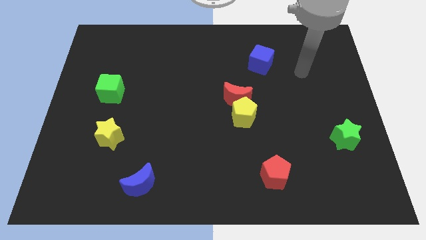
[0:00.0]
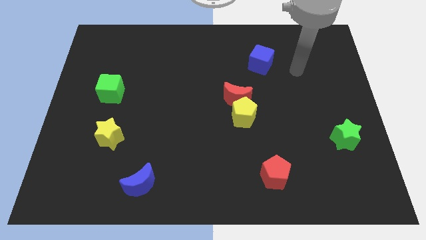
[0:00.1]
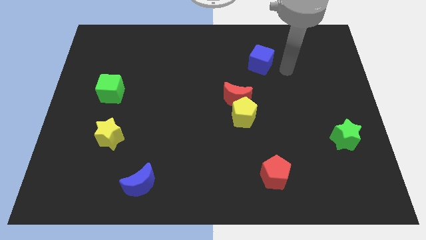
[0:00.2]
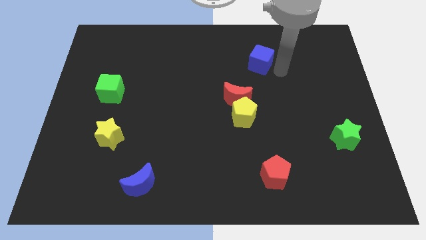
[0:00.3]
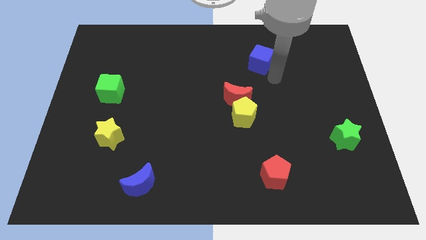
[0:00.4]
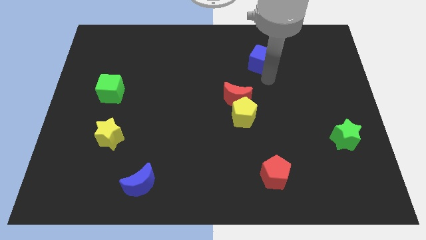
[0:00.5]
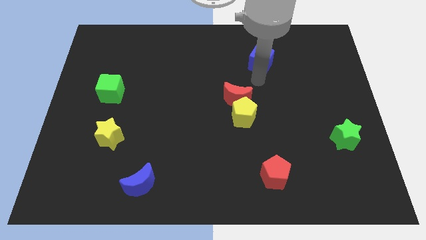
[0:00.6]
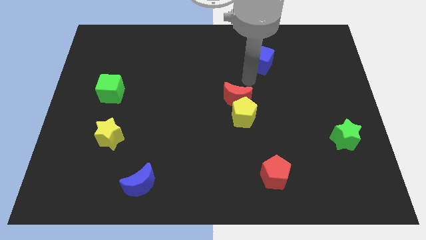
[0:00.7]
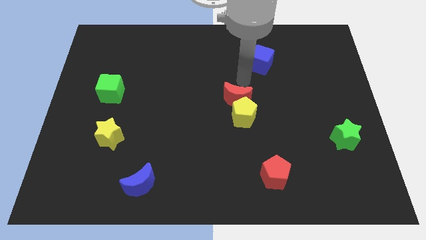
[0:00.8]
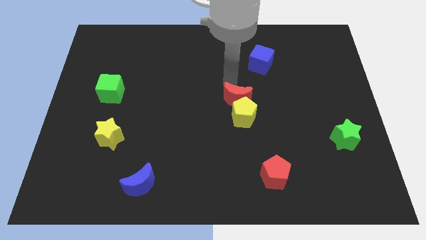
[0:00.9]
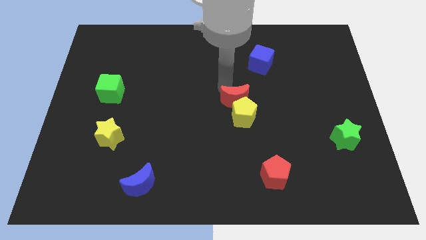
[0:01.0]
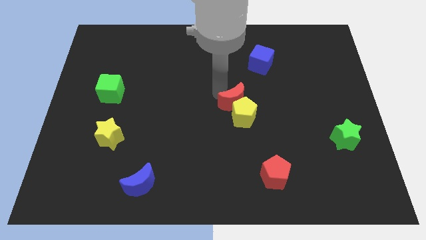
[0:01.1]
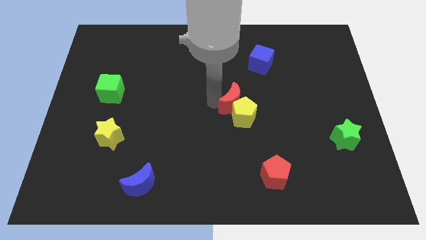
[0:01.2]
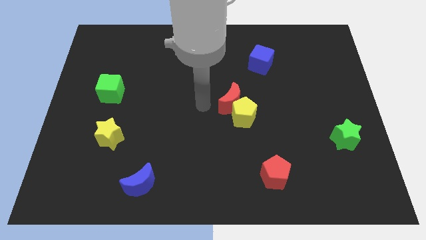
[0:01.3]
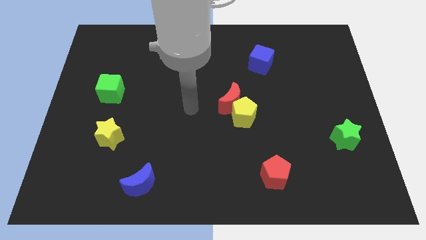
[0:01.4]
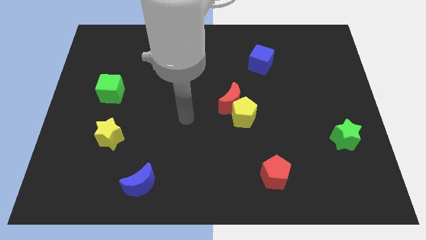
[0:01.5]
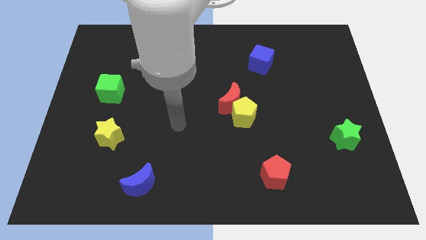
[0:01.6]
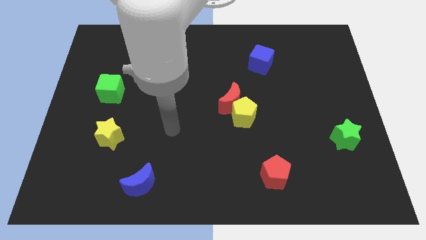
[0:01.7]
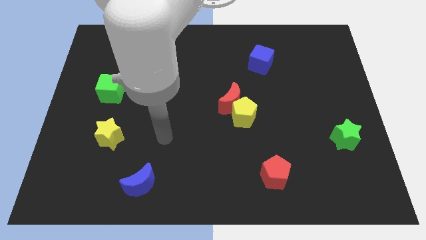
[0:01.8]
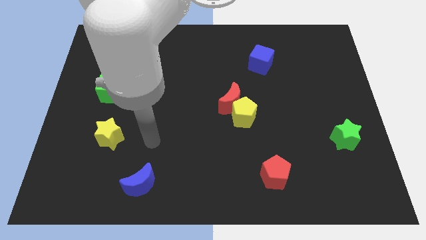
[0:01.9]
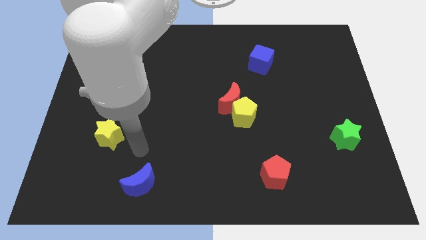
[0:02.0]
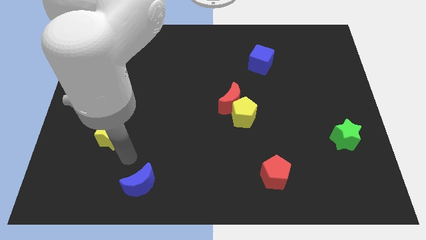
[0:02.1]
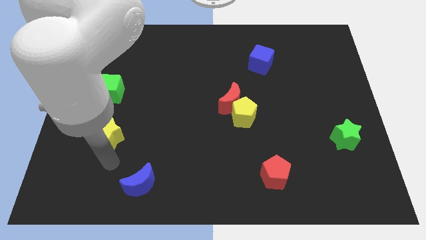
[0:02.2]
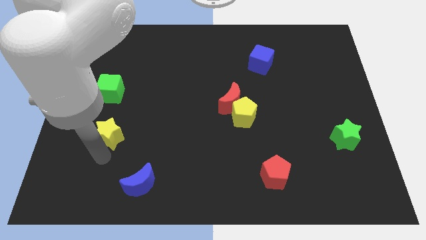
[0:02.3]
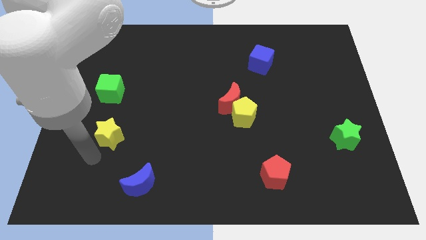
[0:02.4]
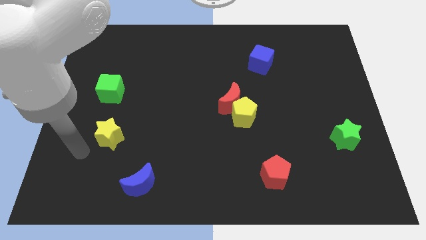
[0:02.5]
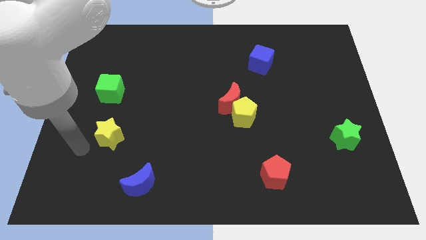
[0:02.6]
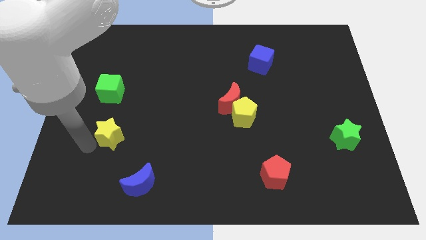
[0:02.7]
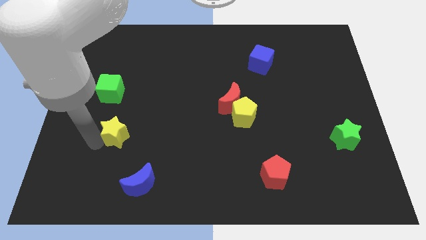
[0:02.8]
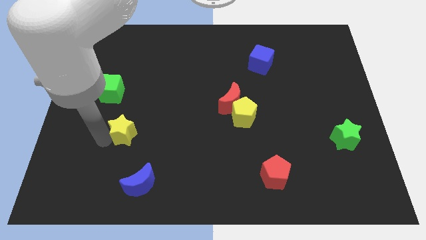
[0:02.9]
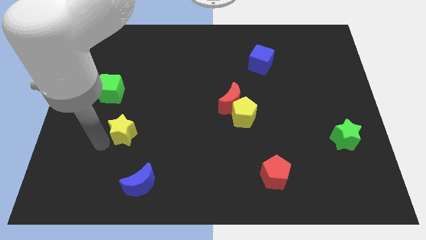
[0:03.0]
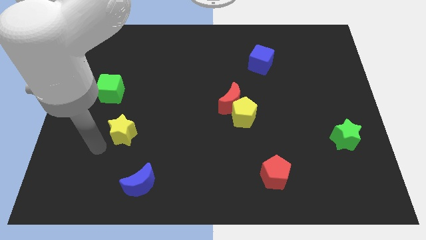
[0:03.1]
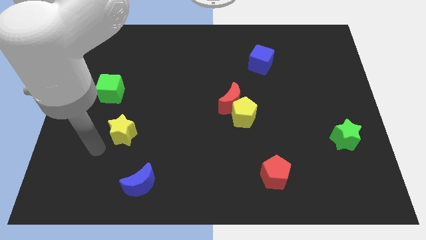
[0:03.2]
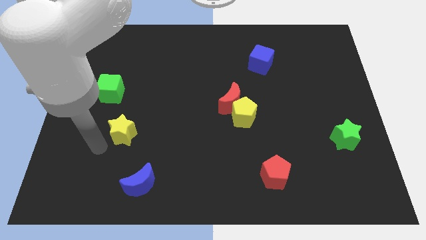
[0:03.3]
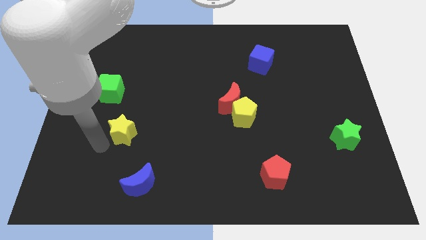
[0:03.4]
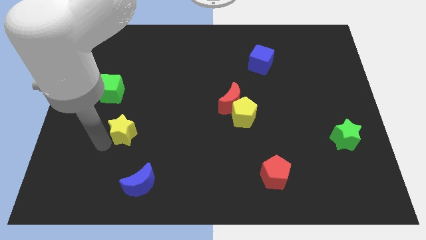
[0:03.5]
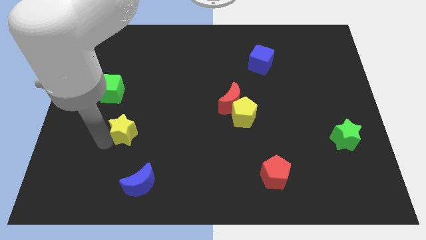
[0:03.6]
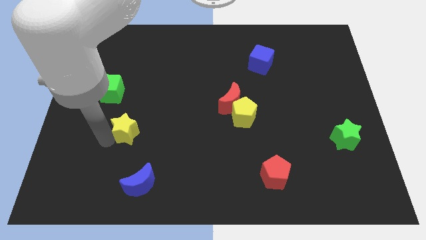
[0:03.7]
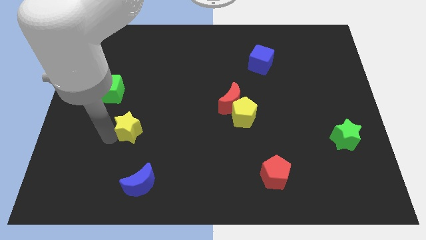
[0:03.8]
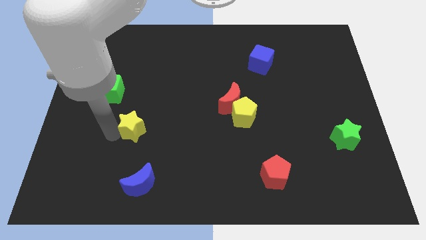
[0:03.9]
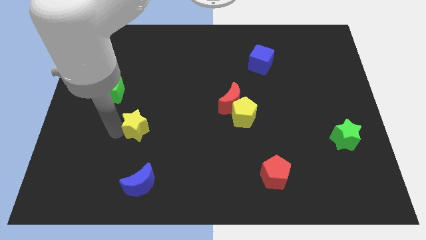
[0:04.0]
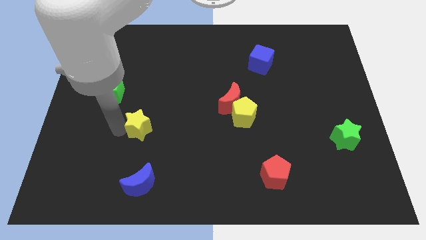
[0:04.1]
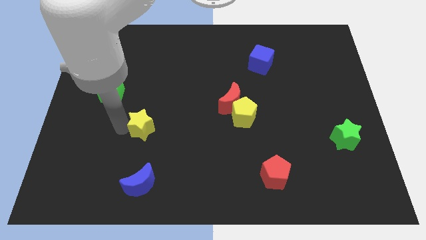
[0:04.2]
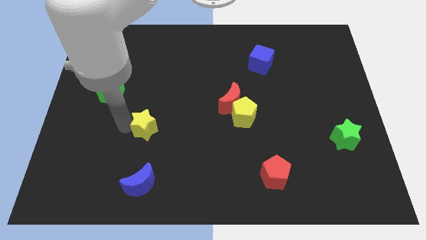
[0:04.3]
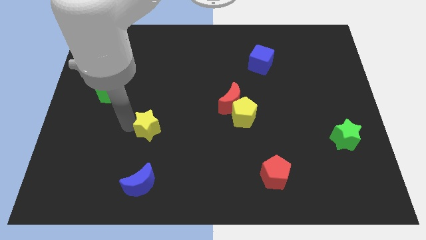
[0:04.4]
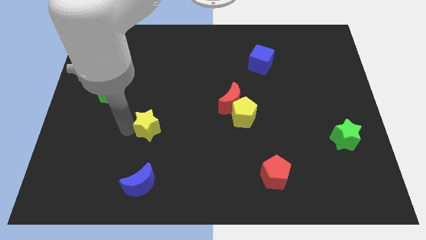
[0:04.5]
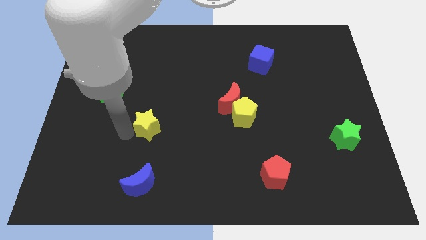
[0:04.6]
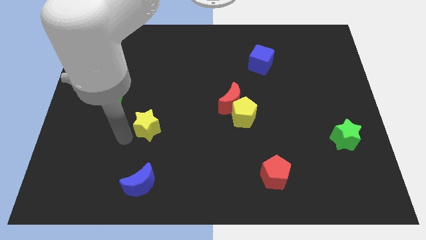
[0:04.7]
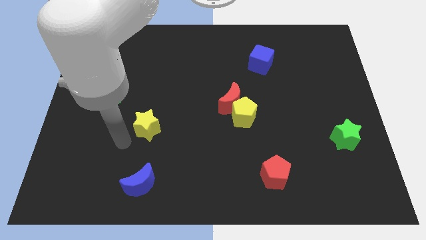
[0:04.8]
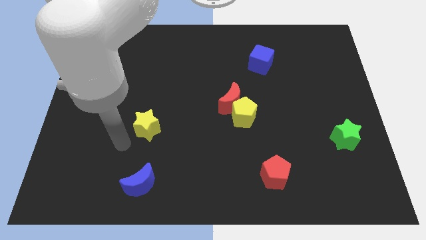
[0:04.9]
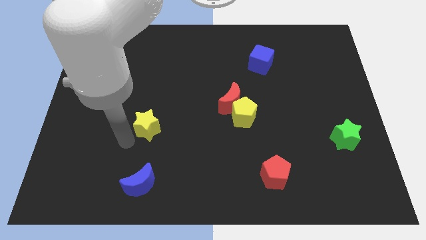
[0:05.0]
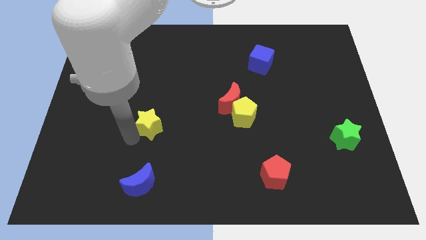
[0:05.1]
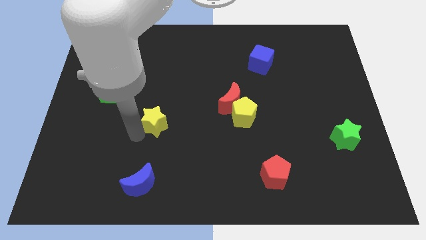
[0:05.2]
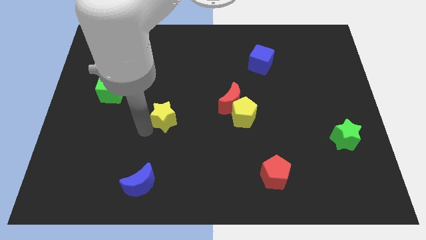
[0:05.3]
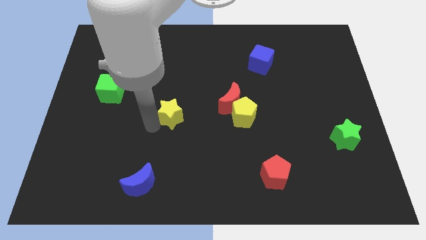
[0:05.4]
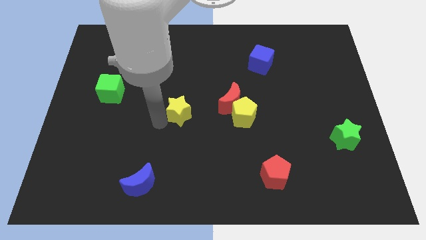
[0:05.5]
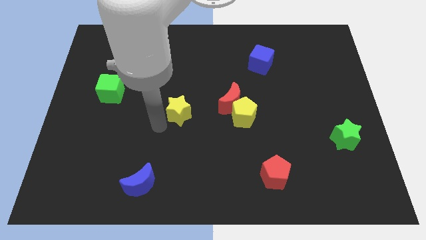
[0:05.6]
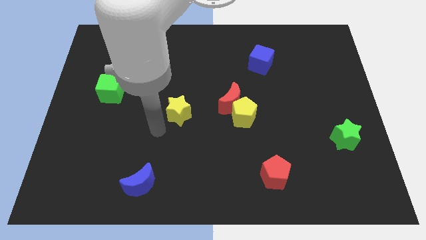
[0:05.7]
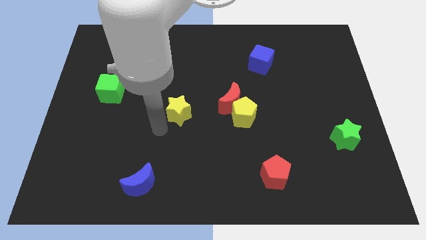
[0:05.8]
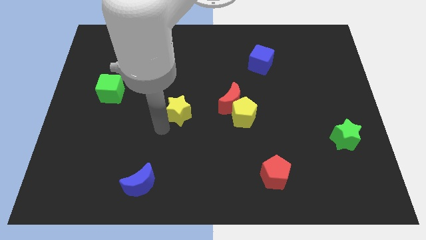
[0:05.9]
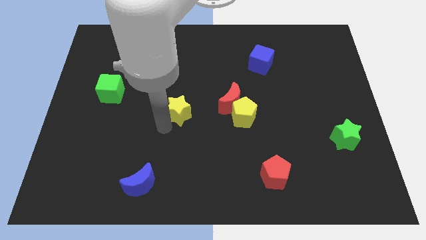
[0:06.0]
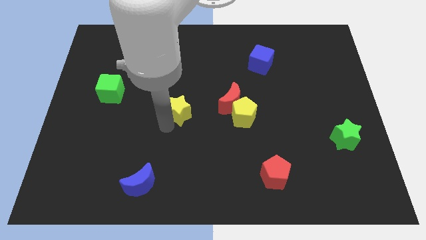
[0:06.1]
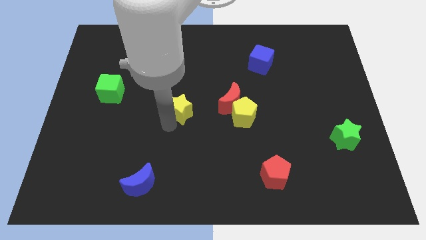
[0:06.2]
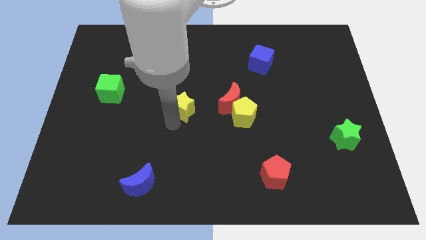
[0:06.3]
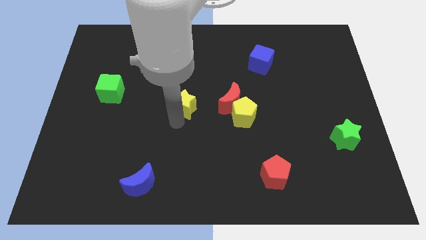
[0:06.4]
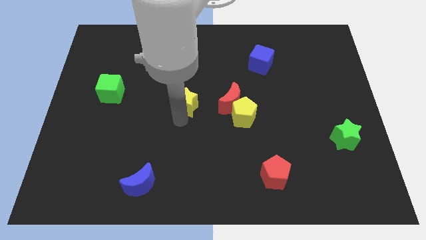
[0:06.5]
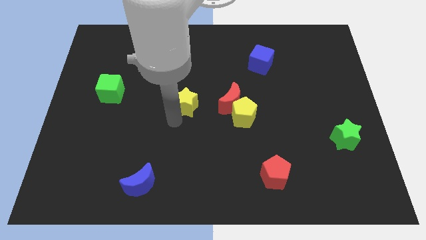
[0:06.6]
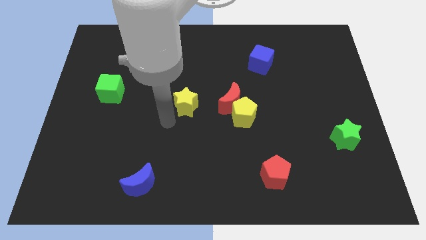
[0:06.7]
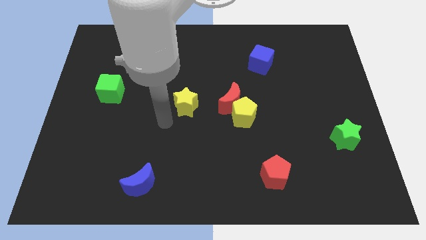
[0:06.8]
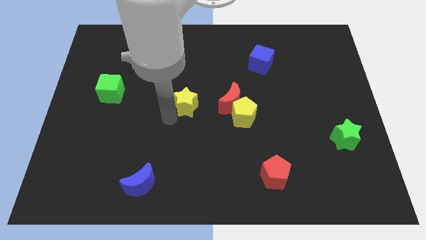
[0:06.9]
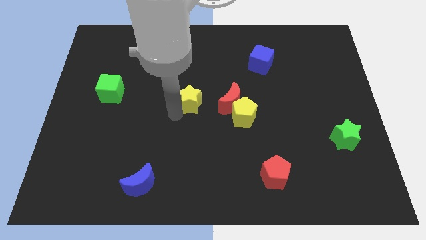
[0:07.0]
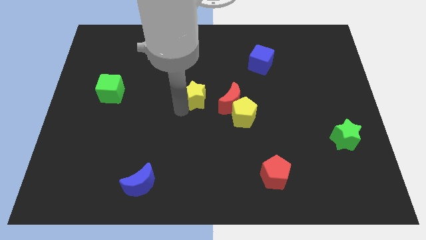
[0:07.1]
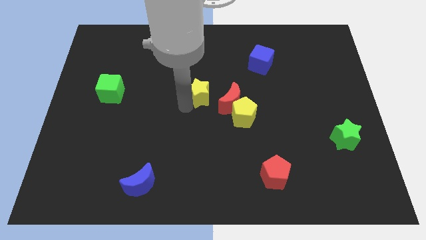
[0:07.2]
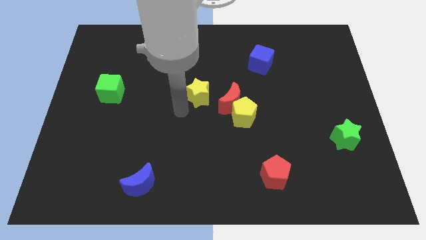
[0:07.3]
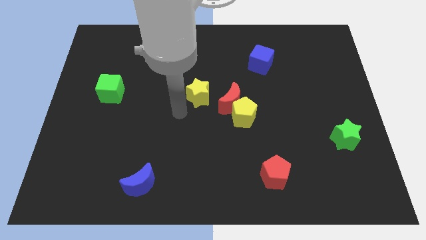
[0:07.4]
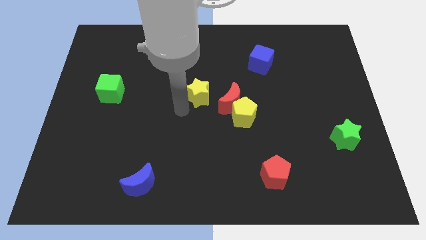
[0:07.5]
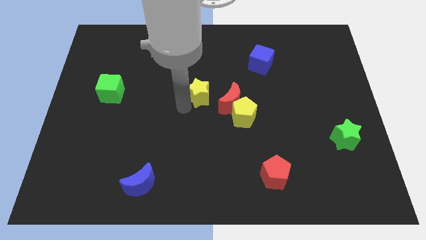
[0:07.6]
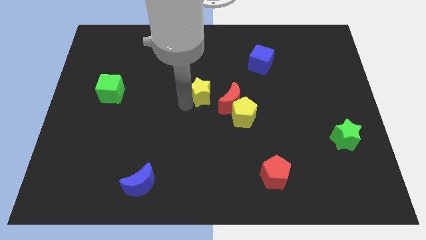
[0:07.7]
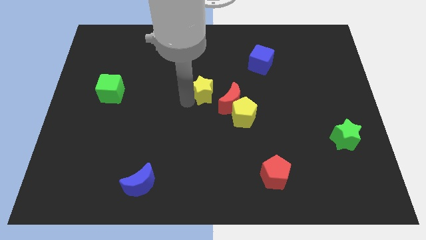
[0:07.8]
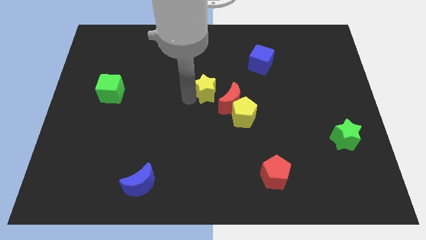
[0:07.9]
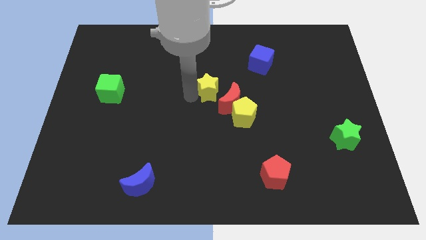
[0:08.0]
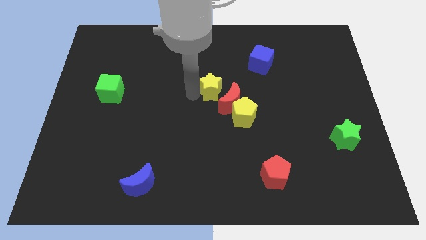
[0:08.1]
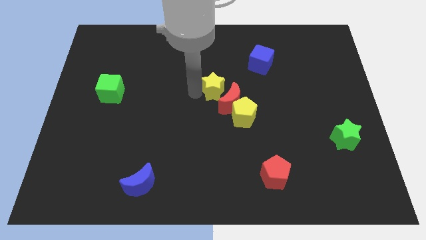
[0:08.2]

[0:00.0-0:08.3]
push the yellow star above the red moon
